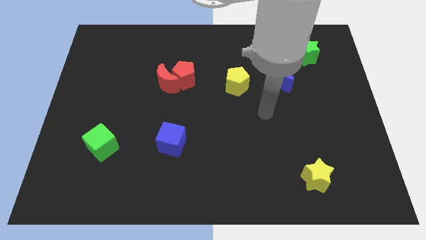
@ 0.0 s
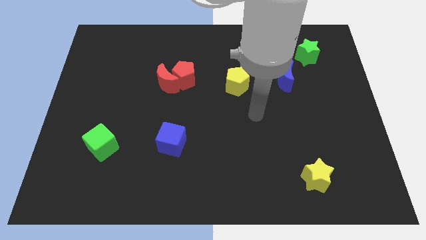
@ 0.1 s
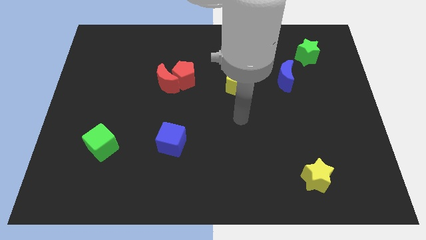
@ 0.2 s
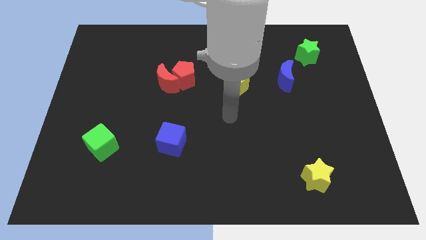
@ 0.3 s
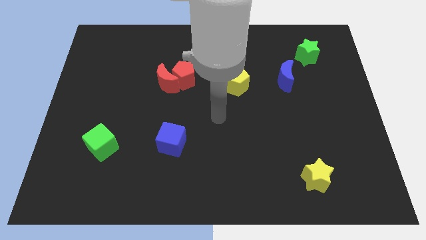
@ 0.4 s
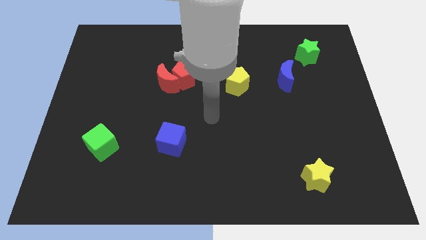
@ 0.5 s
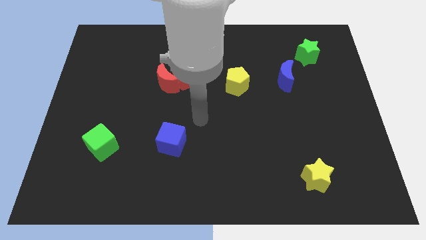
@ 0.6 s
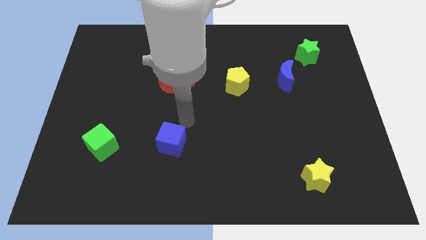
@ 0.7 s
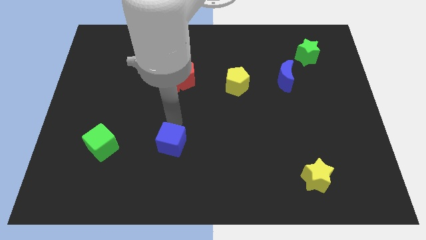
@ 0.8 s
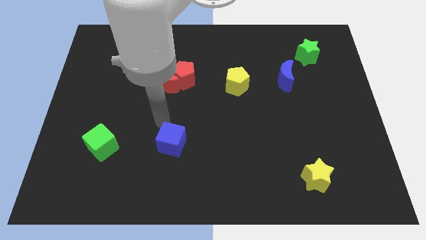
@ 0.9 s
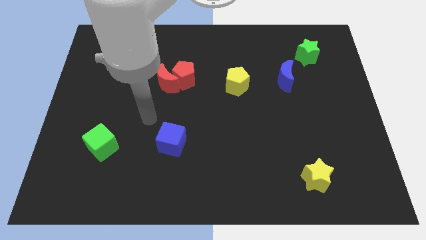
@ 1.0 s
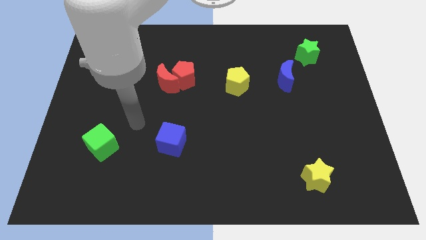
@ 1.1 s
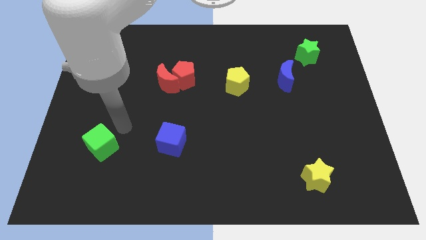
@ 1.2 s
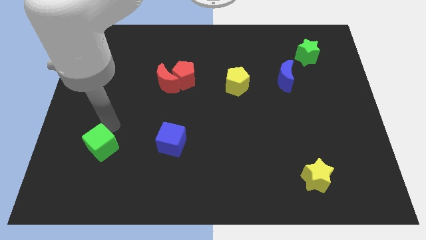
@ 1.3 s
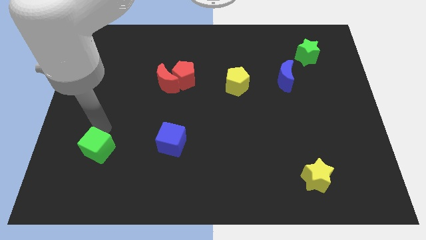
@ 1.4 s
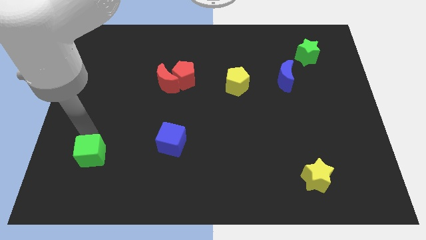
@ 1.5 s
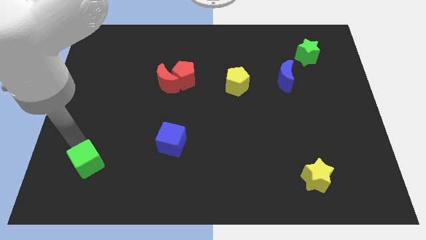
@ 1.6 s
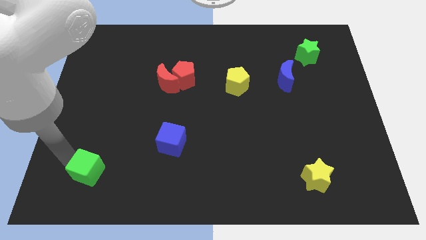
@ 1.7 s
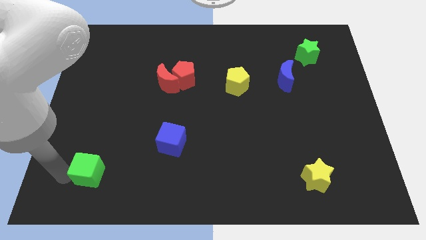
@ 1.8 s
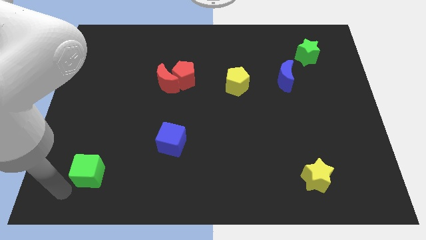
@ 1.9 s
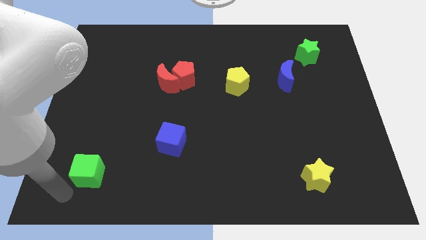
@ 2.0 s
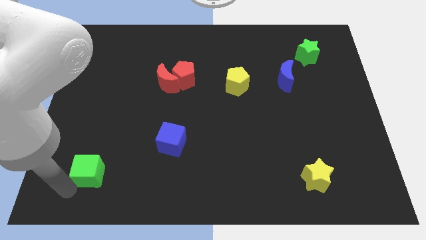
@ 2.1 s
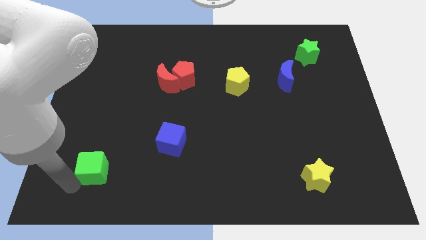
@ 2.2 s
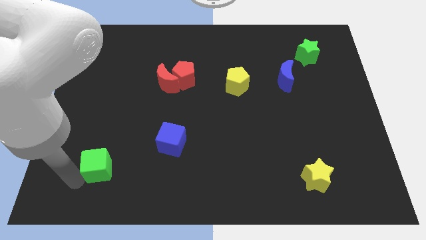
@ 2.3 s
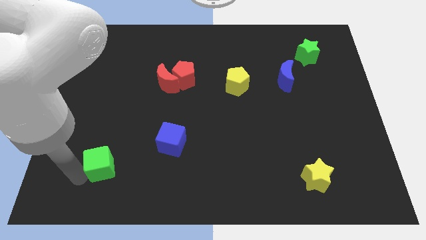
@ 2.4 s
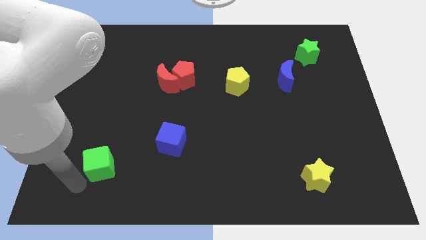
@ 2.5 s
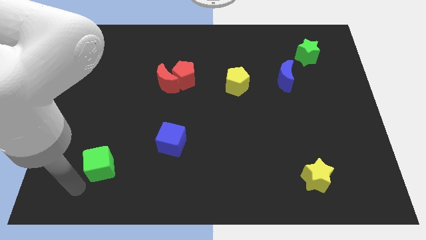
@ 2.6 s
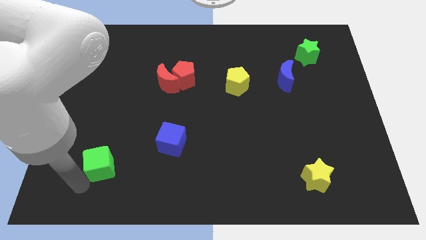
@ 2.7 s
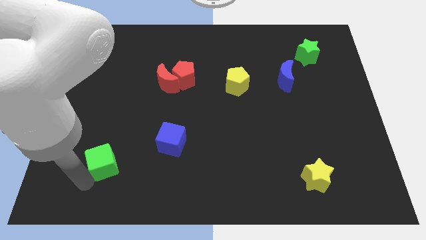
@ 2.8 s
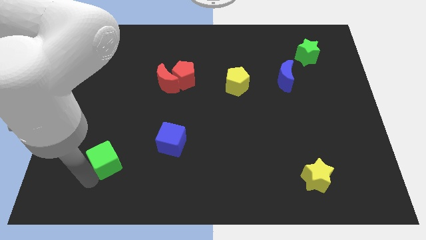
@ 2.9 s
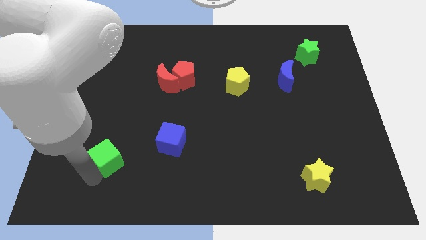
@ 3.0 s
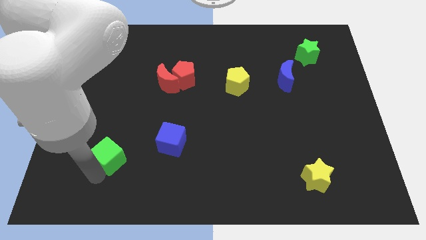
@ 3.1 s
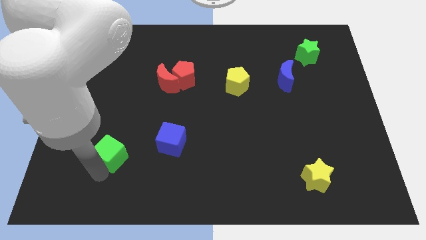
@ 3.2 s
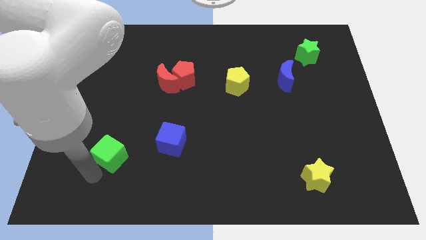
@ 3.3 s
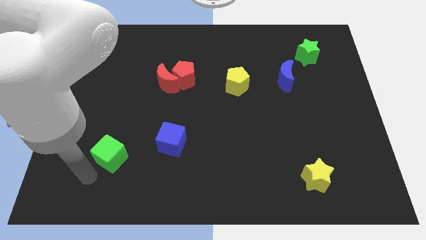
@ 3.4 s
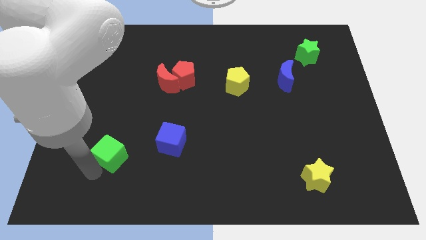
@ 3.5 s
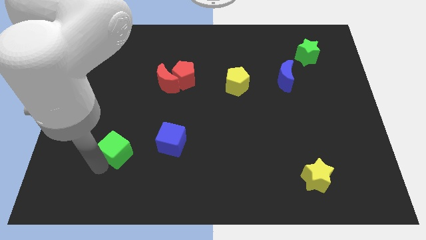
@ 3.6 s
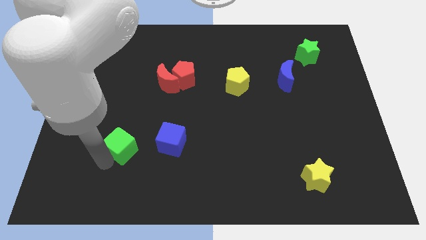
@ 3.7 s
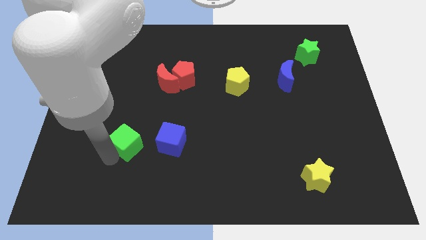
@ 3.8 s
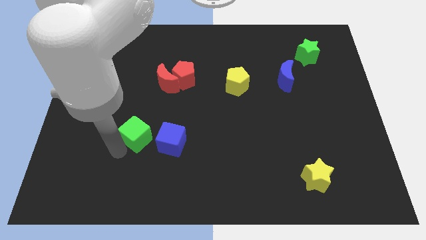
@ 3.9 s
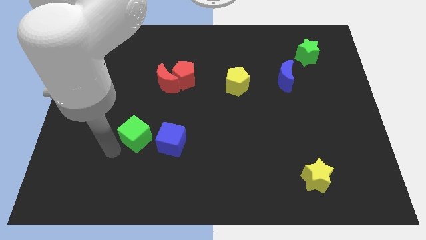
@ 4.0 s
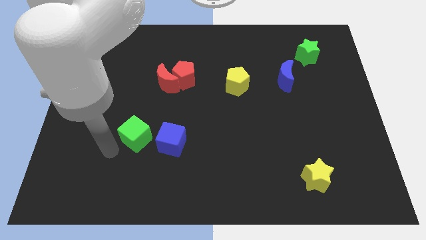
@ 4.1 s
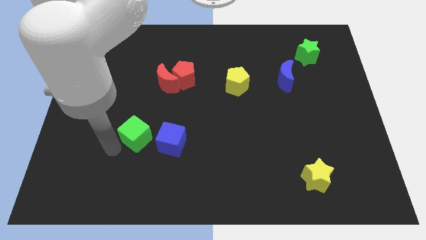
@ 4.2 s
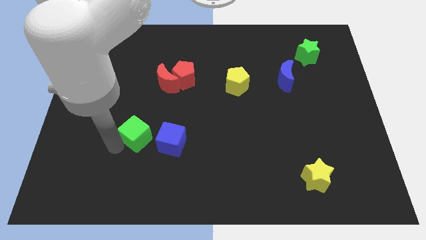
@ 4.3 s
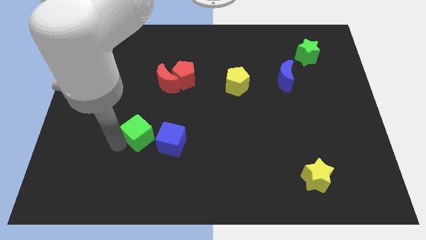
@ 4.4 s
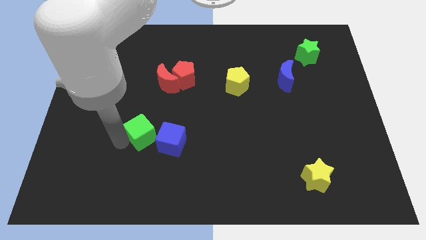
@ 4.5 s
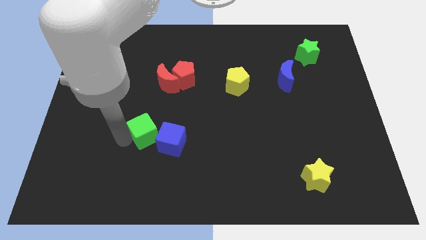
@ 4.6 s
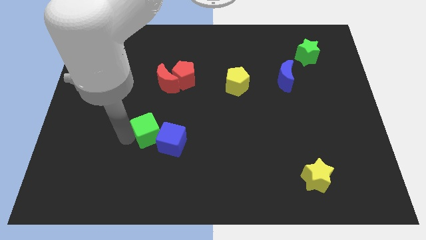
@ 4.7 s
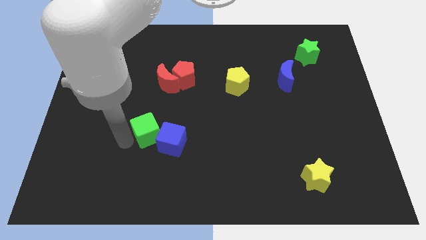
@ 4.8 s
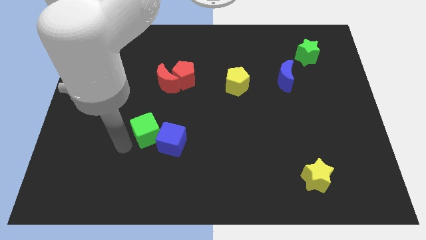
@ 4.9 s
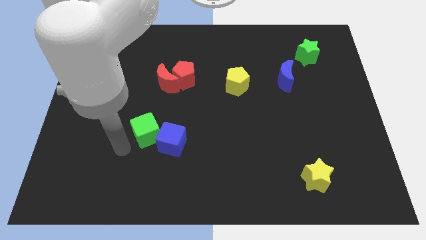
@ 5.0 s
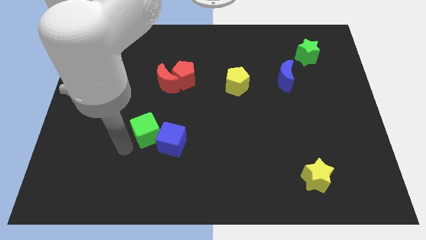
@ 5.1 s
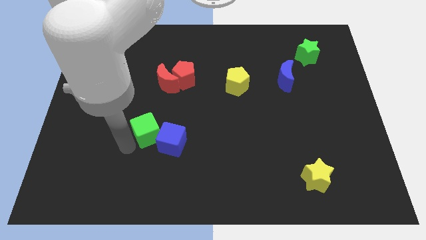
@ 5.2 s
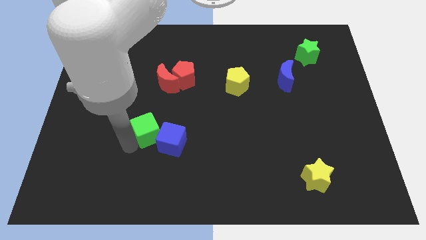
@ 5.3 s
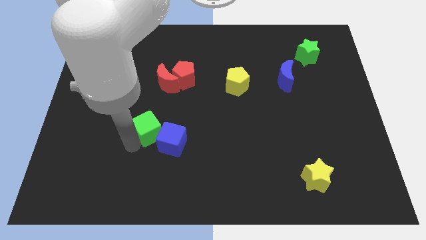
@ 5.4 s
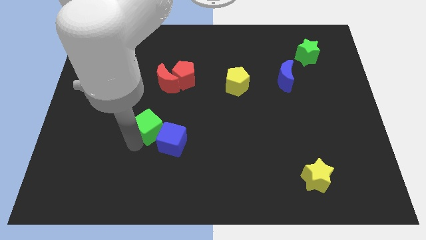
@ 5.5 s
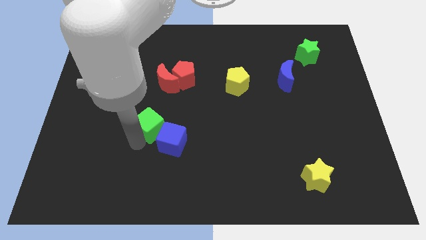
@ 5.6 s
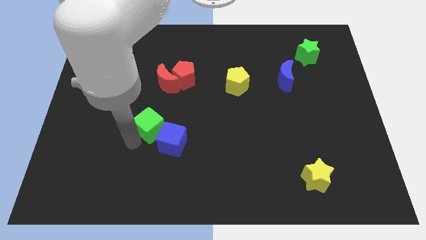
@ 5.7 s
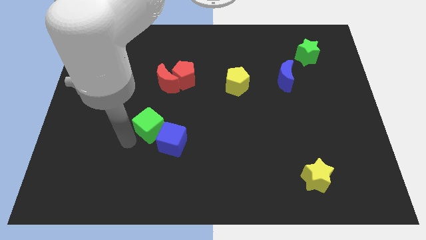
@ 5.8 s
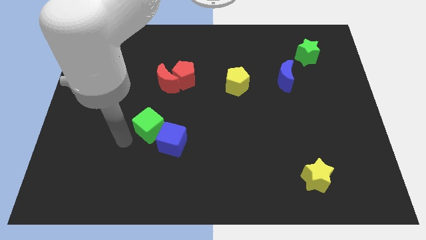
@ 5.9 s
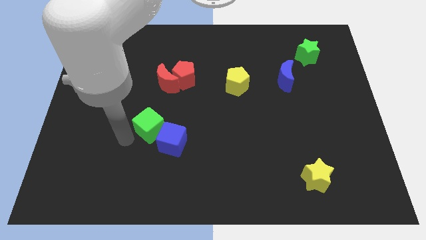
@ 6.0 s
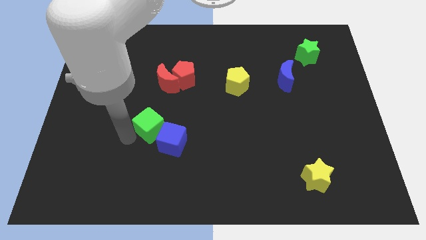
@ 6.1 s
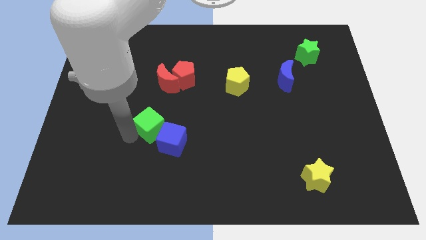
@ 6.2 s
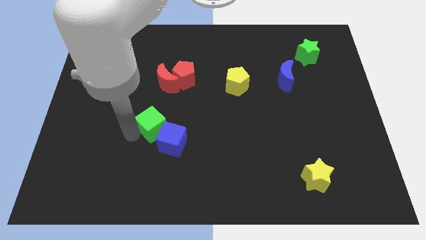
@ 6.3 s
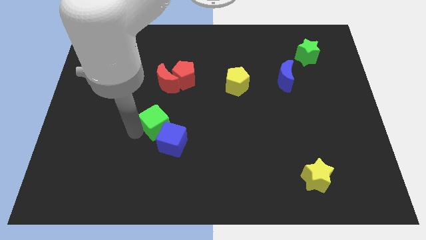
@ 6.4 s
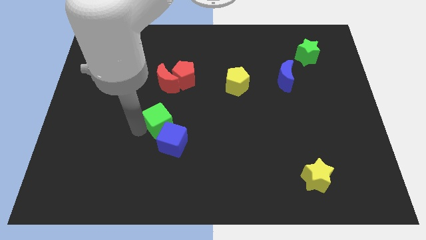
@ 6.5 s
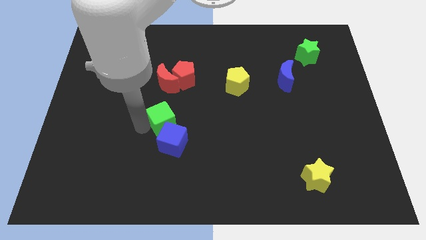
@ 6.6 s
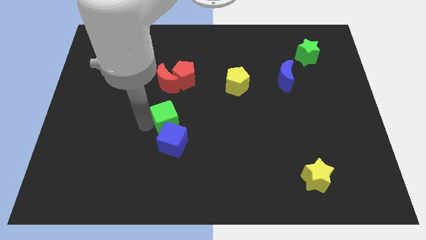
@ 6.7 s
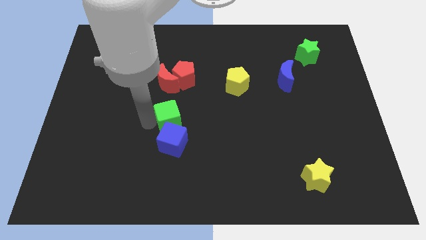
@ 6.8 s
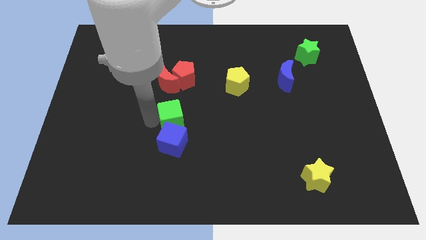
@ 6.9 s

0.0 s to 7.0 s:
put the green cube diagonally up and to the right of the blue cube

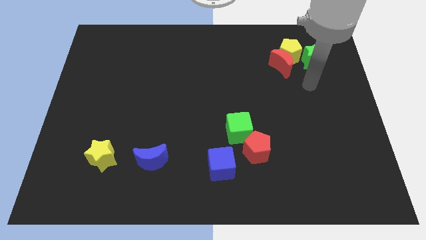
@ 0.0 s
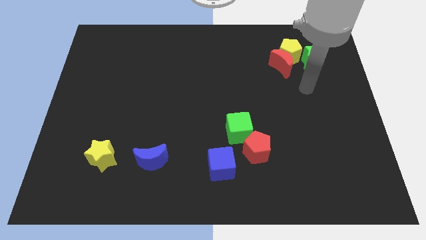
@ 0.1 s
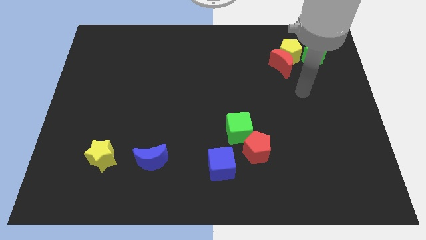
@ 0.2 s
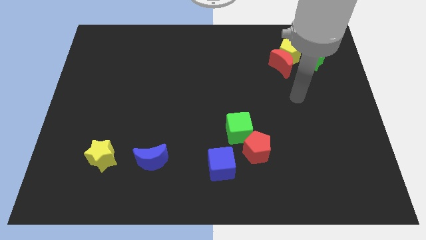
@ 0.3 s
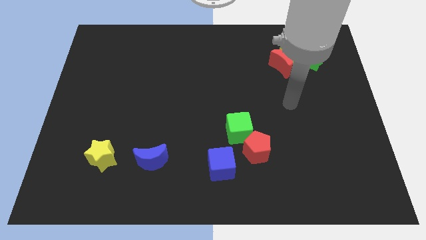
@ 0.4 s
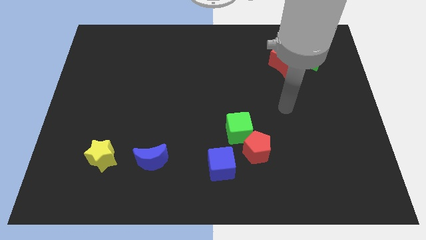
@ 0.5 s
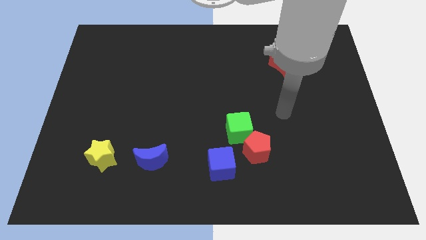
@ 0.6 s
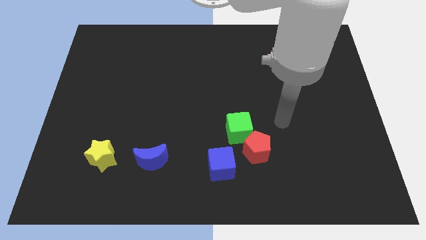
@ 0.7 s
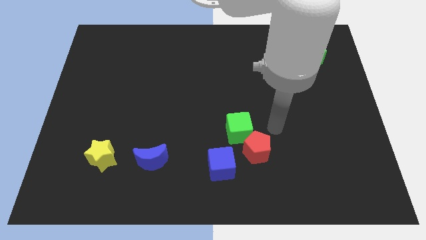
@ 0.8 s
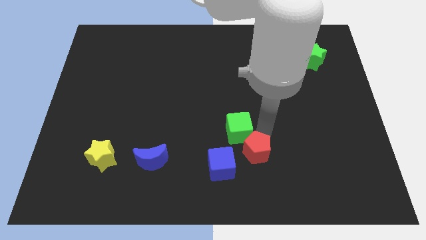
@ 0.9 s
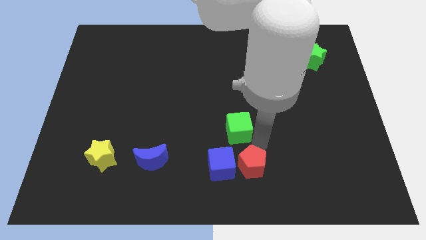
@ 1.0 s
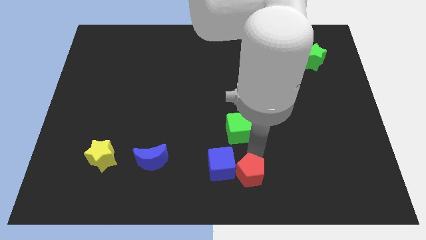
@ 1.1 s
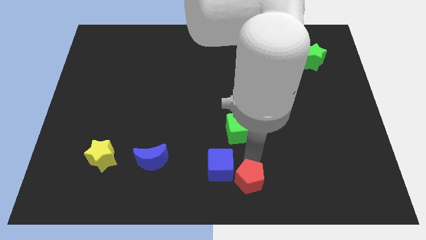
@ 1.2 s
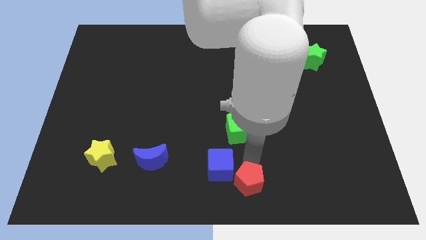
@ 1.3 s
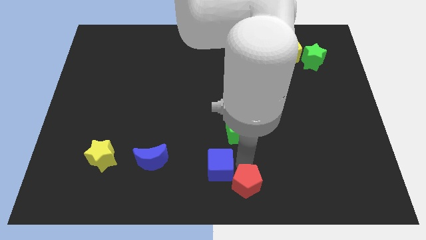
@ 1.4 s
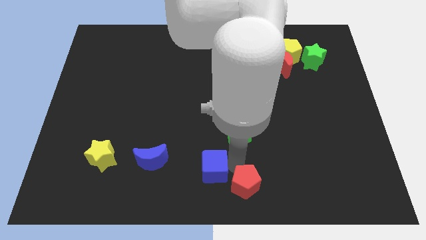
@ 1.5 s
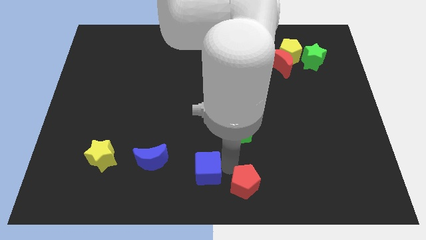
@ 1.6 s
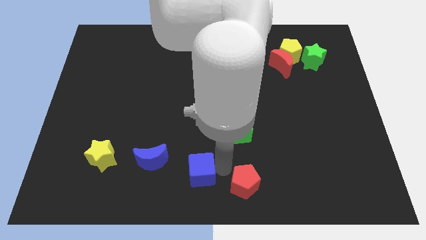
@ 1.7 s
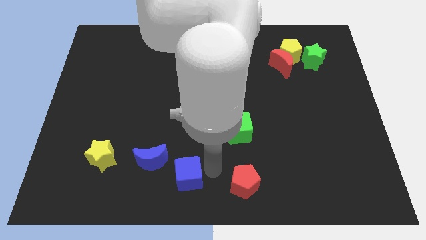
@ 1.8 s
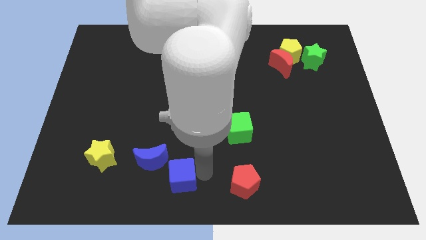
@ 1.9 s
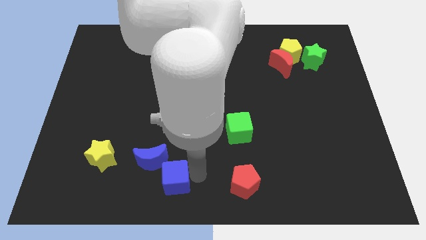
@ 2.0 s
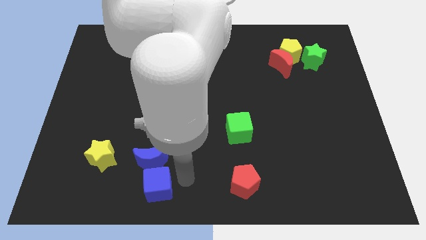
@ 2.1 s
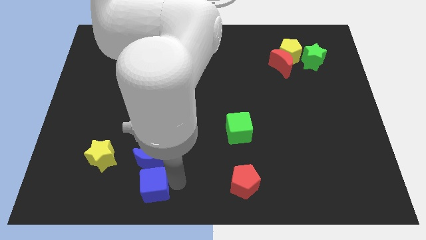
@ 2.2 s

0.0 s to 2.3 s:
slide the blue cube to the bottom left of the blue moon
